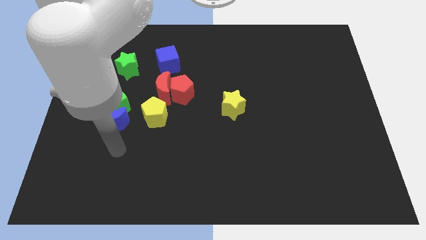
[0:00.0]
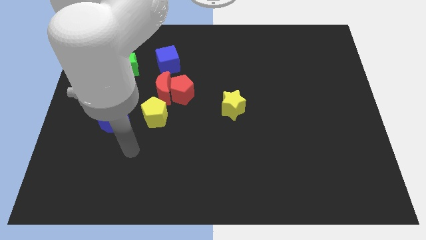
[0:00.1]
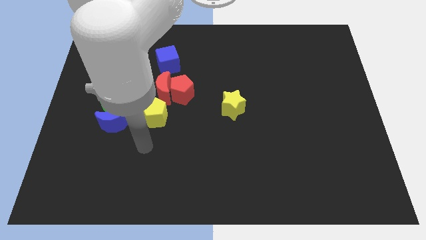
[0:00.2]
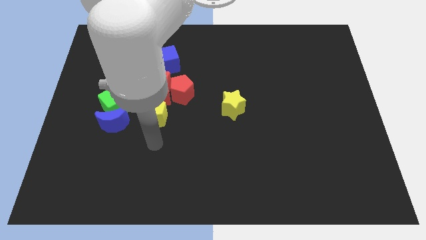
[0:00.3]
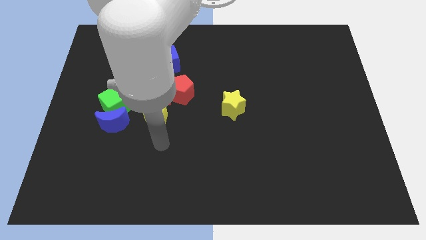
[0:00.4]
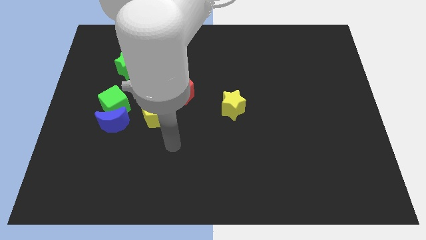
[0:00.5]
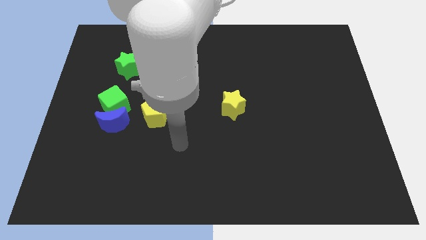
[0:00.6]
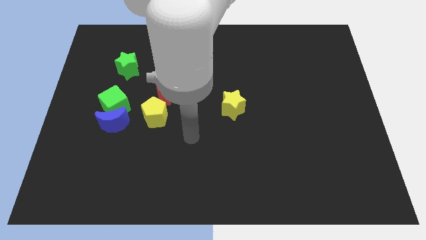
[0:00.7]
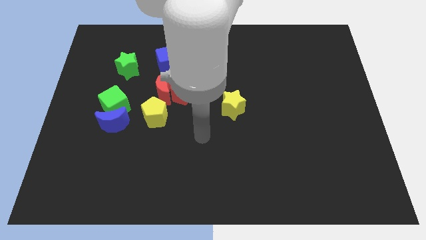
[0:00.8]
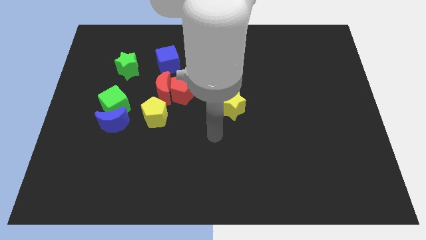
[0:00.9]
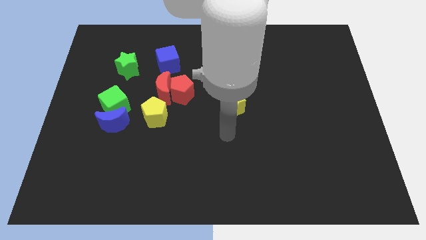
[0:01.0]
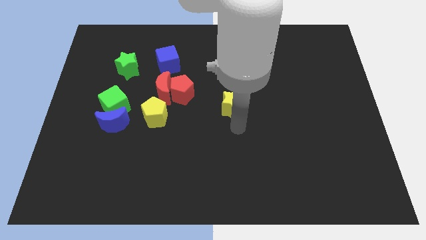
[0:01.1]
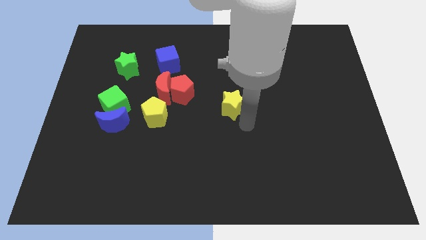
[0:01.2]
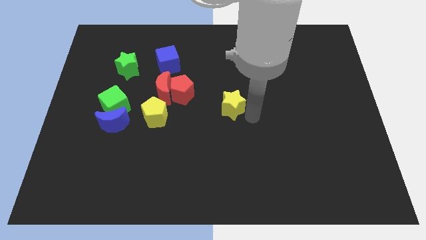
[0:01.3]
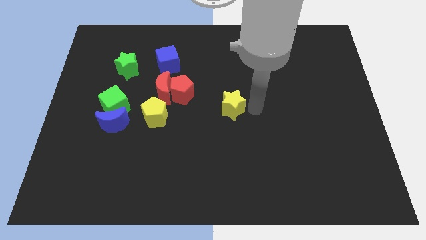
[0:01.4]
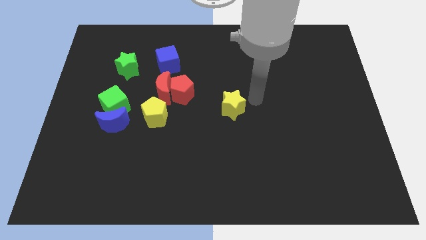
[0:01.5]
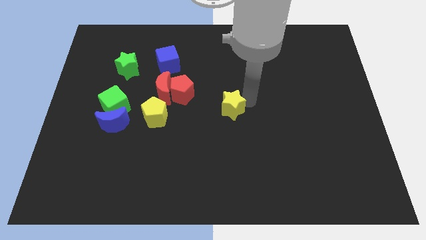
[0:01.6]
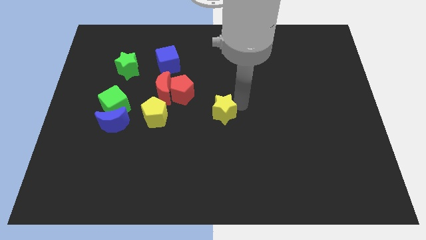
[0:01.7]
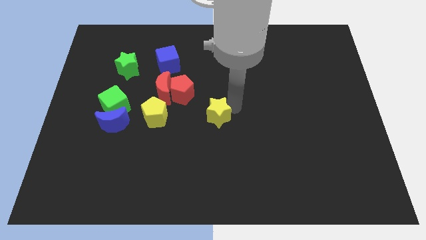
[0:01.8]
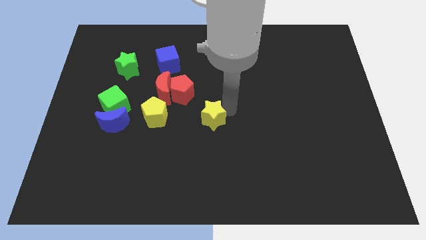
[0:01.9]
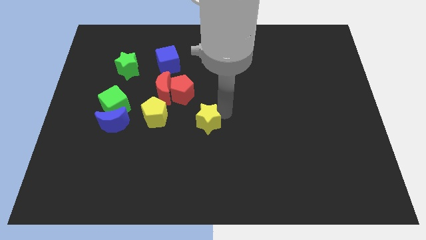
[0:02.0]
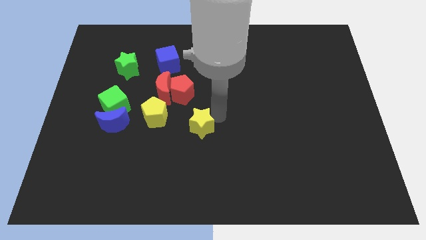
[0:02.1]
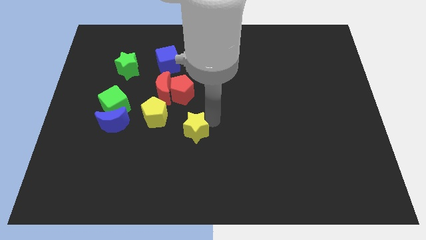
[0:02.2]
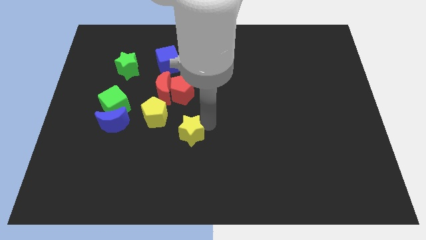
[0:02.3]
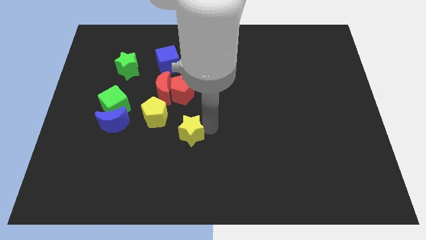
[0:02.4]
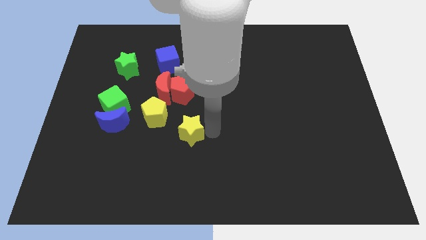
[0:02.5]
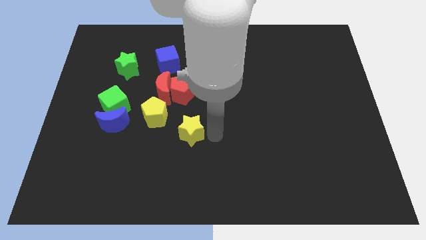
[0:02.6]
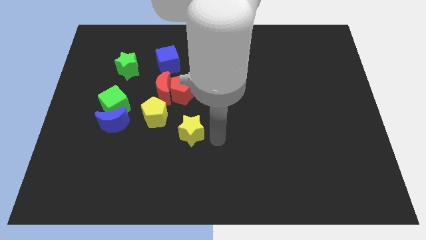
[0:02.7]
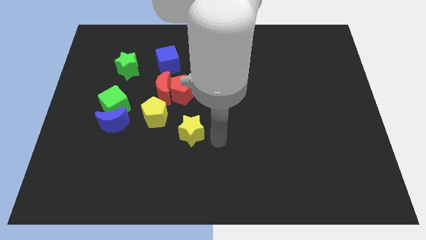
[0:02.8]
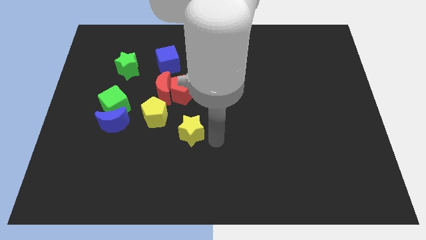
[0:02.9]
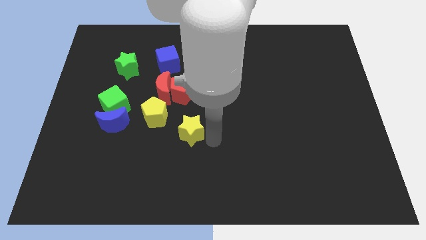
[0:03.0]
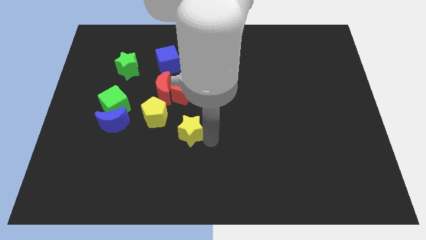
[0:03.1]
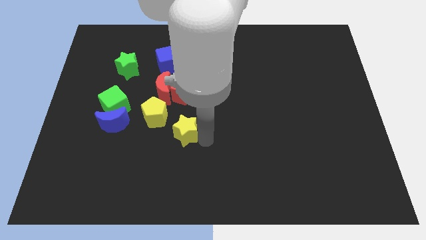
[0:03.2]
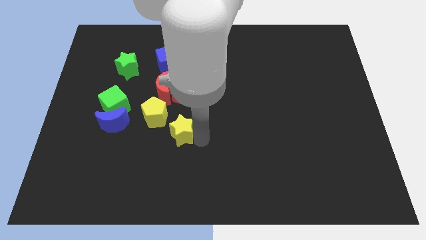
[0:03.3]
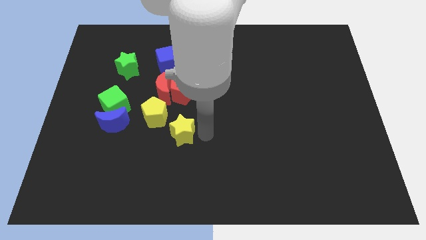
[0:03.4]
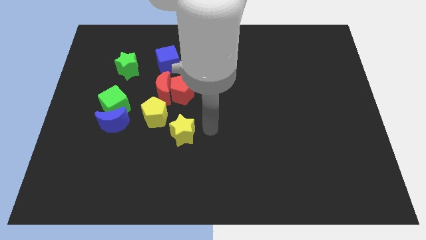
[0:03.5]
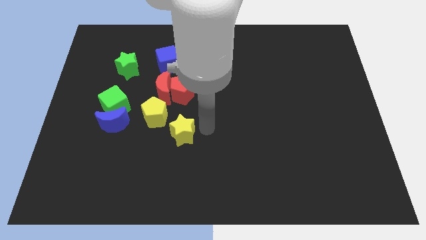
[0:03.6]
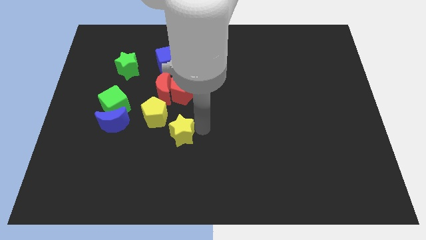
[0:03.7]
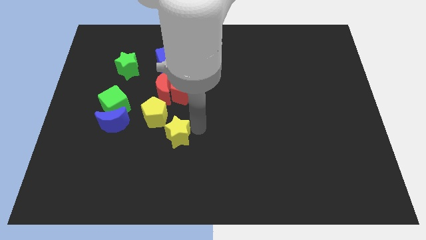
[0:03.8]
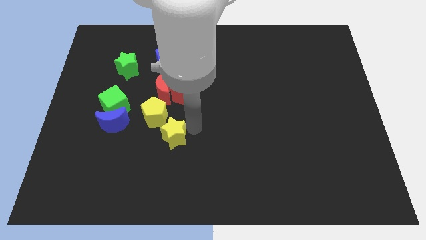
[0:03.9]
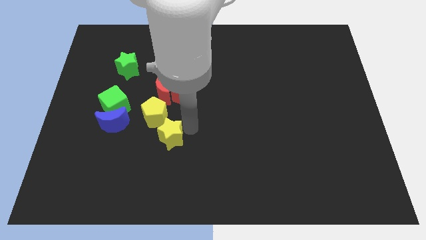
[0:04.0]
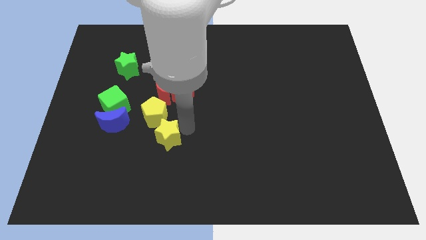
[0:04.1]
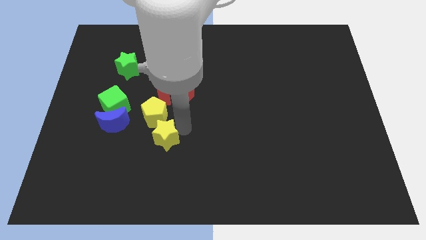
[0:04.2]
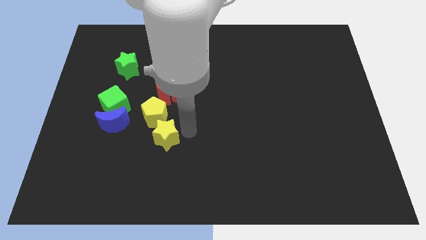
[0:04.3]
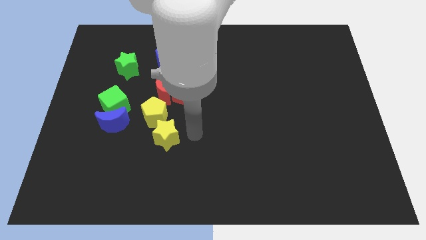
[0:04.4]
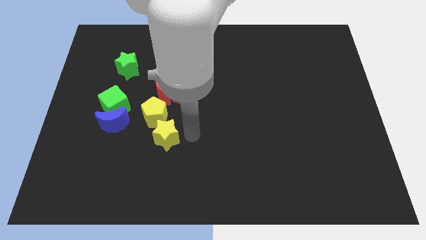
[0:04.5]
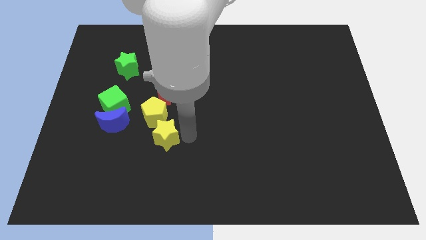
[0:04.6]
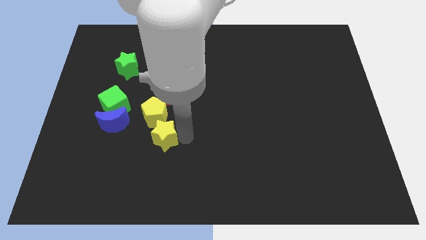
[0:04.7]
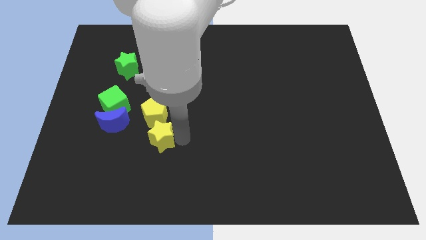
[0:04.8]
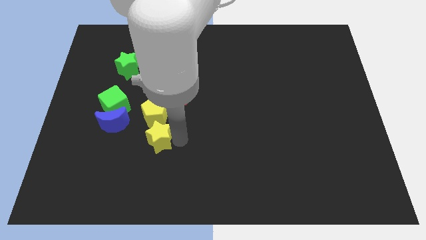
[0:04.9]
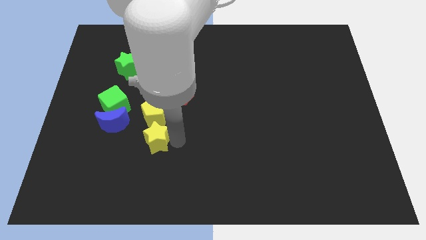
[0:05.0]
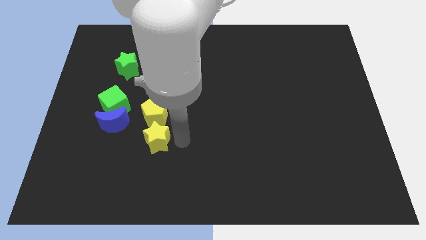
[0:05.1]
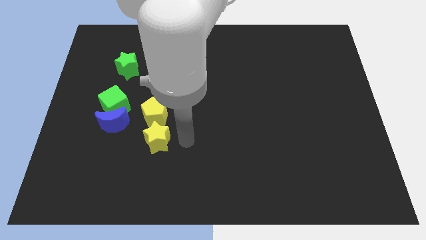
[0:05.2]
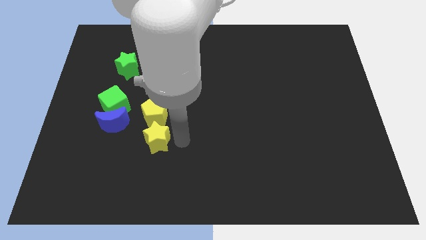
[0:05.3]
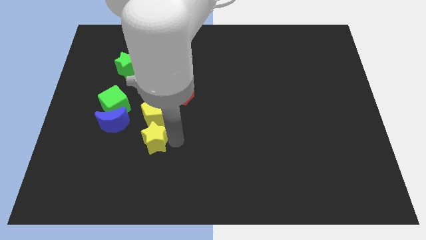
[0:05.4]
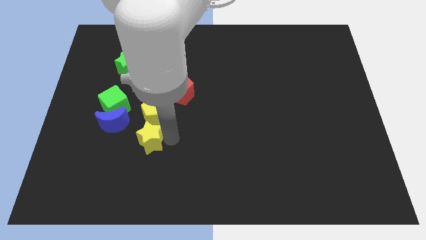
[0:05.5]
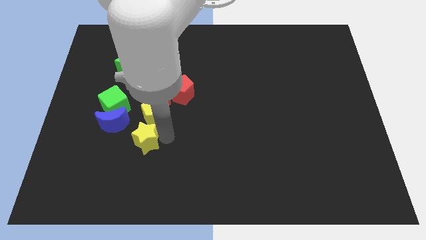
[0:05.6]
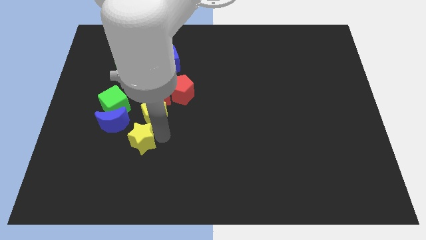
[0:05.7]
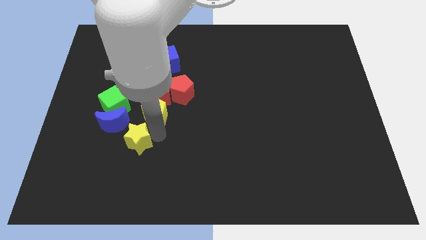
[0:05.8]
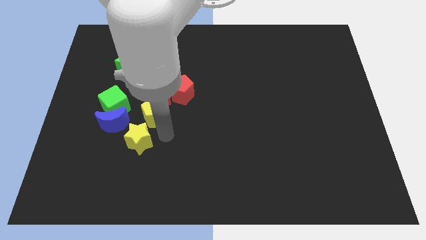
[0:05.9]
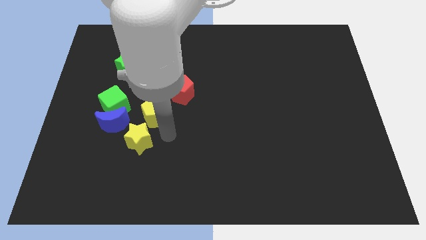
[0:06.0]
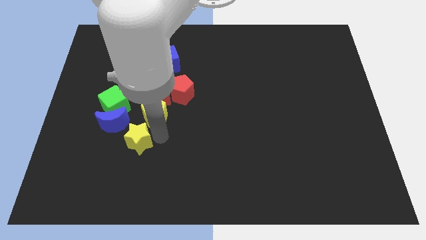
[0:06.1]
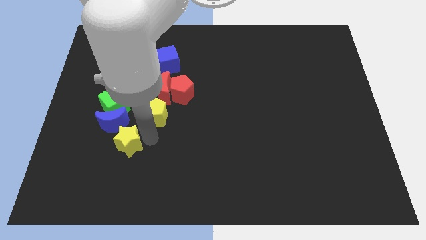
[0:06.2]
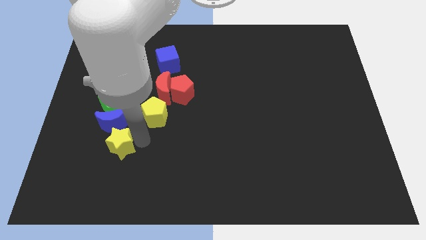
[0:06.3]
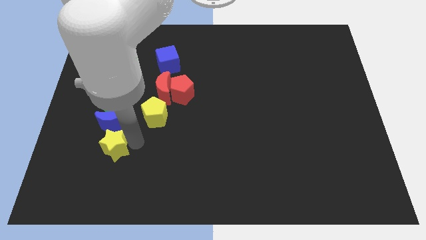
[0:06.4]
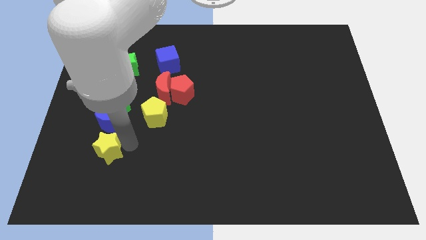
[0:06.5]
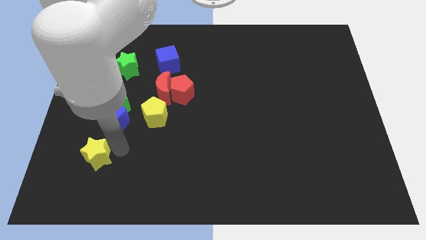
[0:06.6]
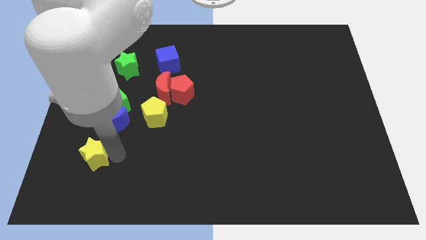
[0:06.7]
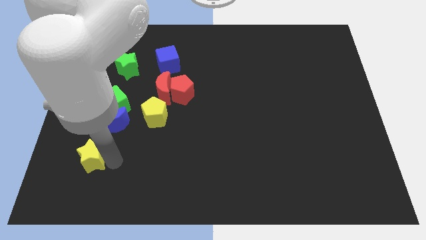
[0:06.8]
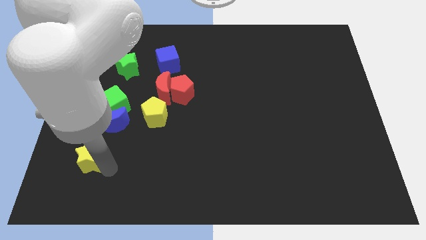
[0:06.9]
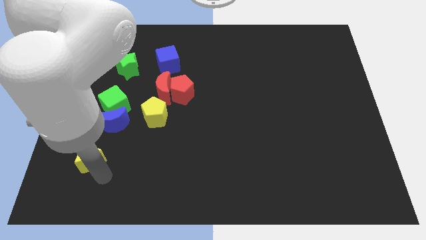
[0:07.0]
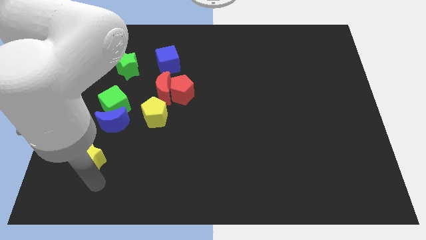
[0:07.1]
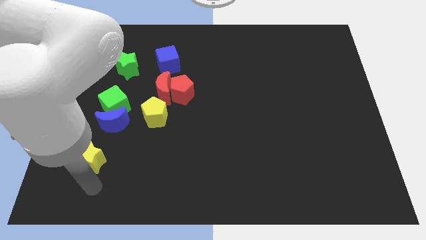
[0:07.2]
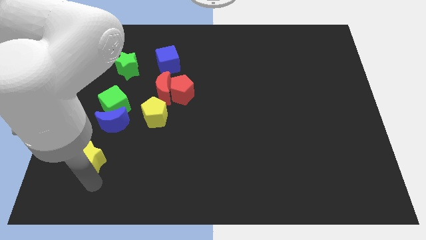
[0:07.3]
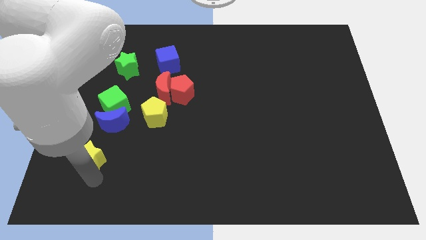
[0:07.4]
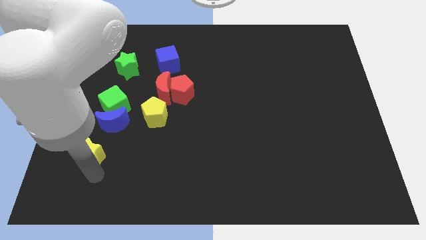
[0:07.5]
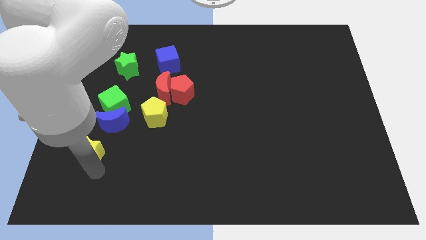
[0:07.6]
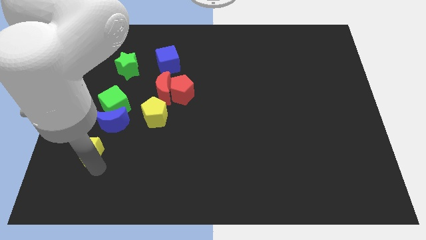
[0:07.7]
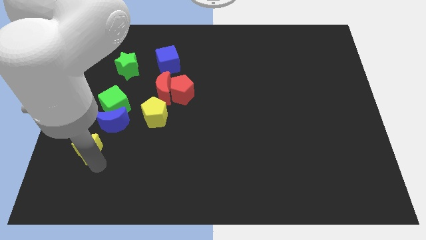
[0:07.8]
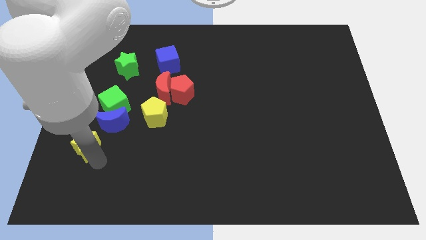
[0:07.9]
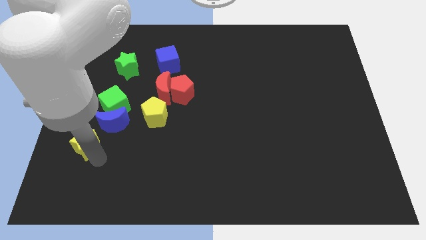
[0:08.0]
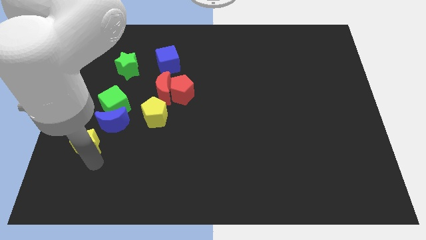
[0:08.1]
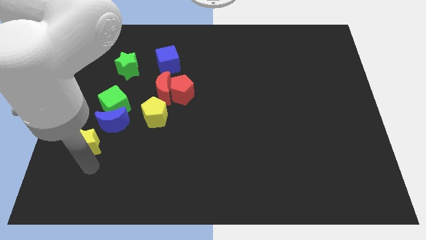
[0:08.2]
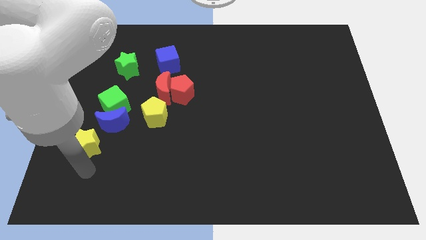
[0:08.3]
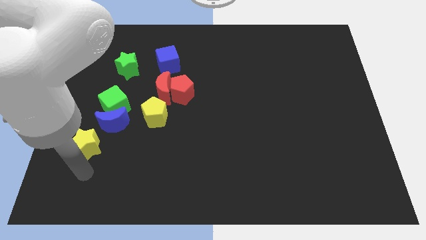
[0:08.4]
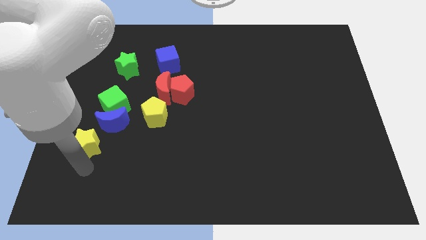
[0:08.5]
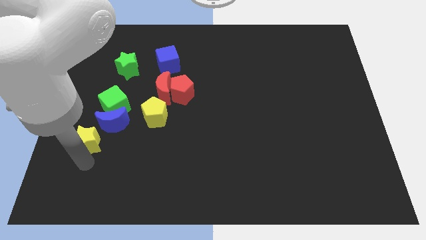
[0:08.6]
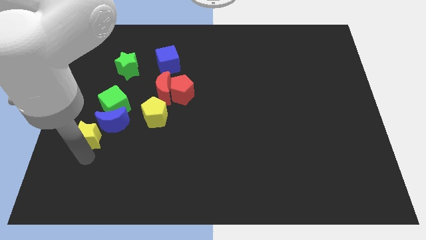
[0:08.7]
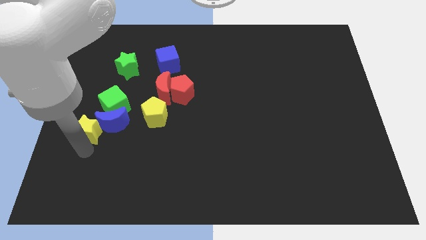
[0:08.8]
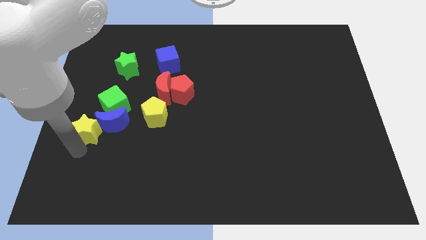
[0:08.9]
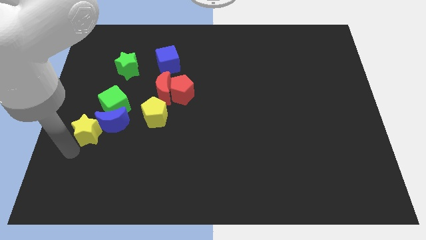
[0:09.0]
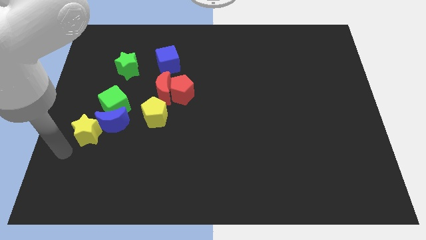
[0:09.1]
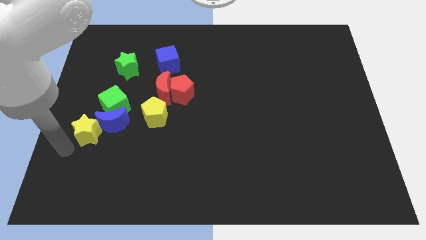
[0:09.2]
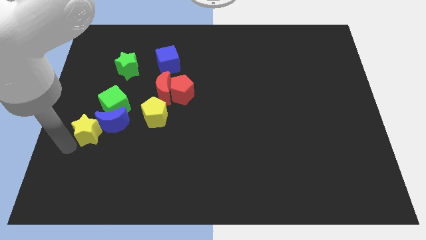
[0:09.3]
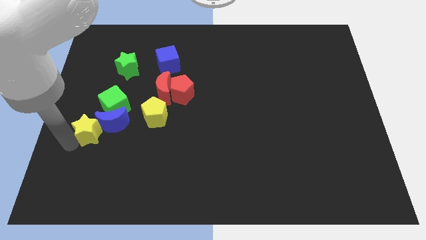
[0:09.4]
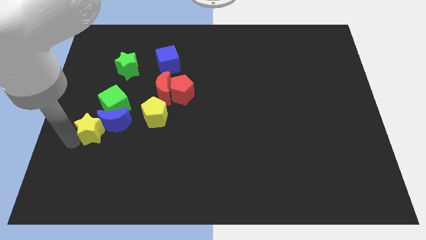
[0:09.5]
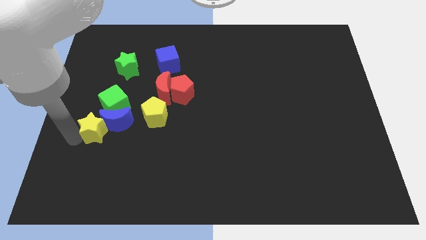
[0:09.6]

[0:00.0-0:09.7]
push the yellow star left of the yellow pentagon
